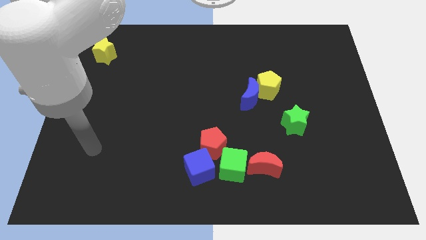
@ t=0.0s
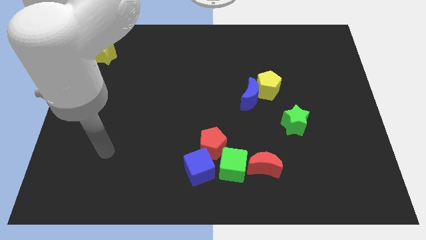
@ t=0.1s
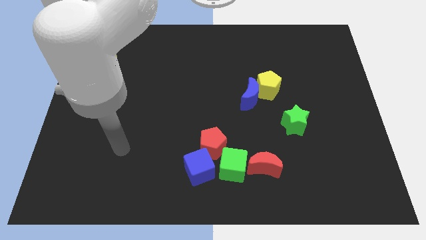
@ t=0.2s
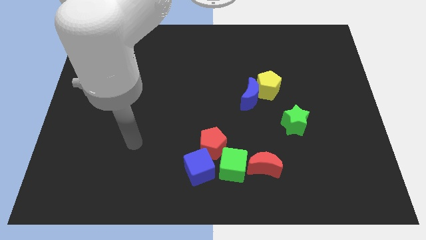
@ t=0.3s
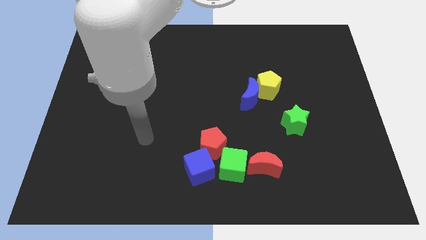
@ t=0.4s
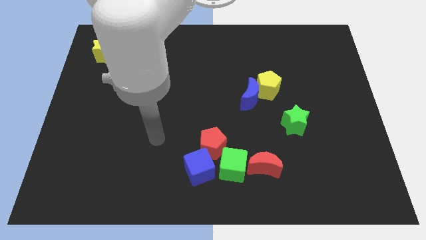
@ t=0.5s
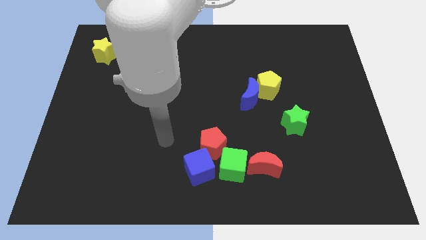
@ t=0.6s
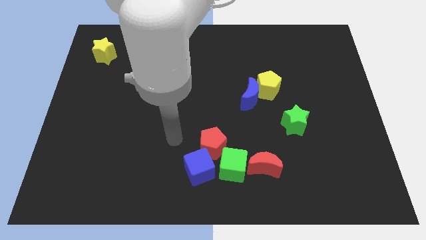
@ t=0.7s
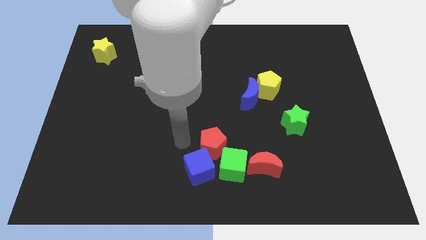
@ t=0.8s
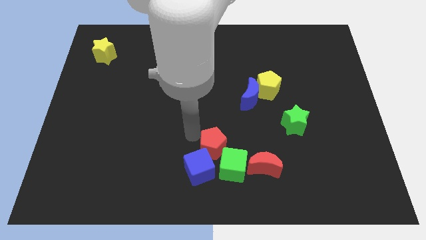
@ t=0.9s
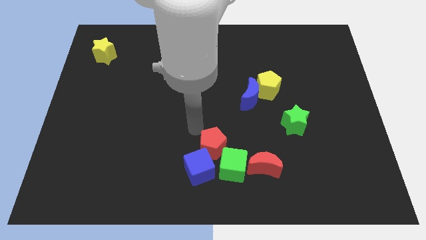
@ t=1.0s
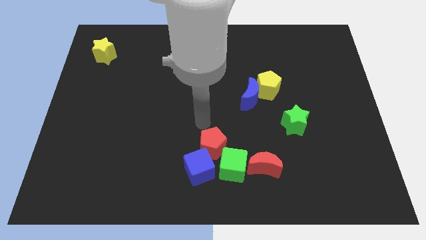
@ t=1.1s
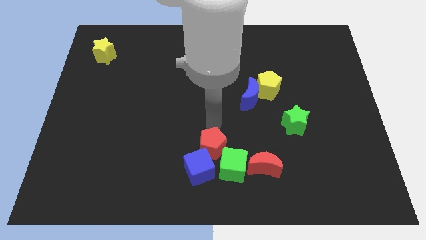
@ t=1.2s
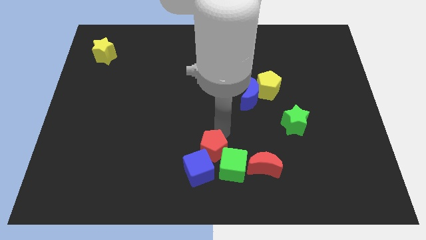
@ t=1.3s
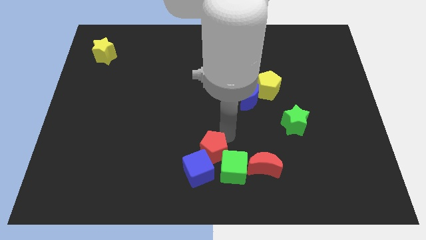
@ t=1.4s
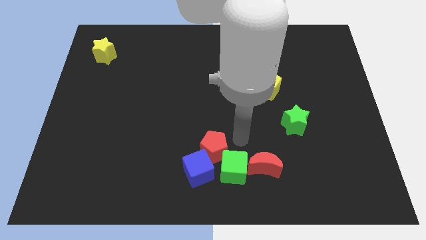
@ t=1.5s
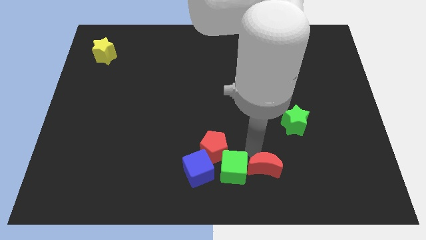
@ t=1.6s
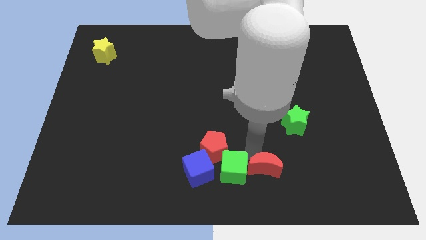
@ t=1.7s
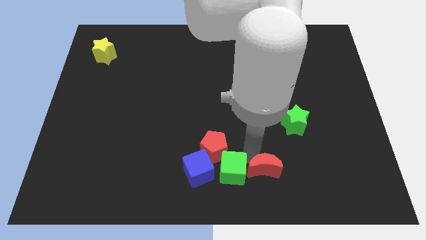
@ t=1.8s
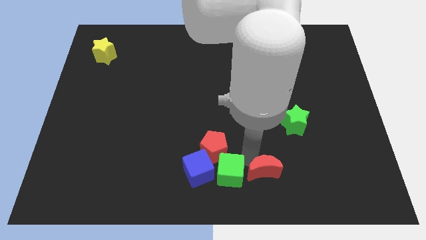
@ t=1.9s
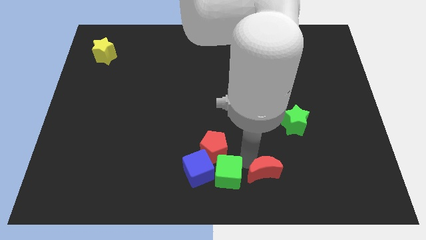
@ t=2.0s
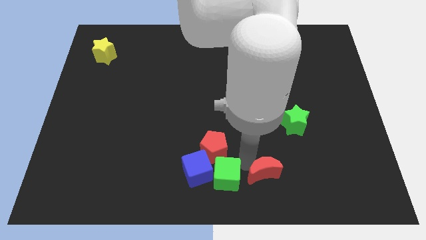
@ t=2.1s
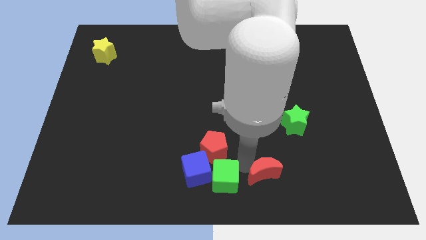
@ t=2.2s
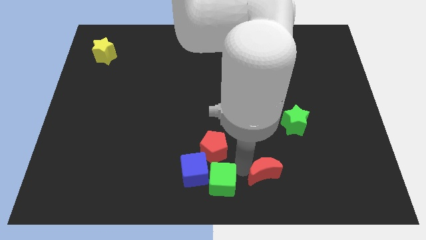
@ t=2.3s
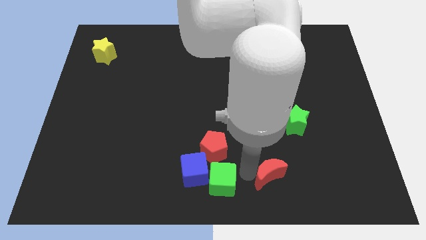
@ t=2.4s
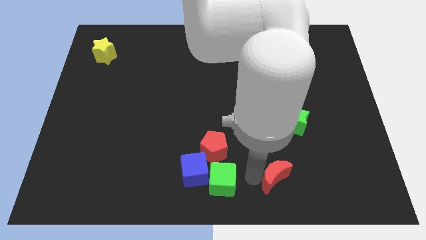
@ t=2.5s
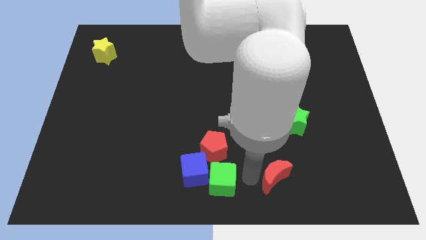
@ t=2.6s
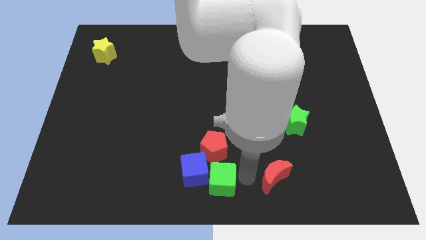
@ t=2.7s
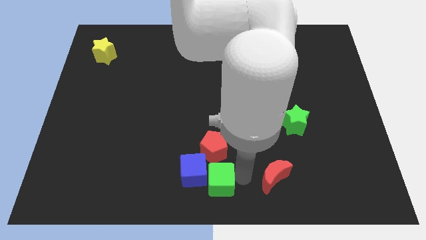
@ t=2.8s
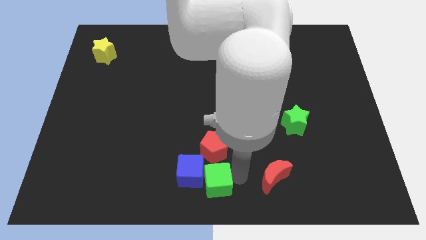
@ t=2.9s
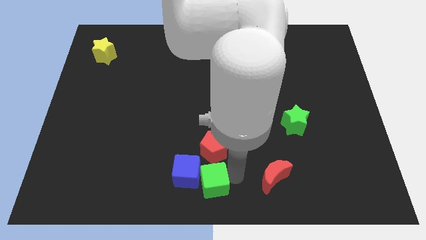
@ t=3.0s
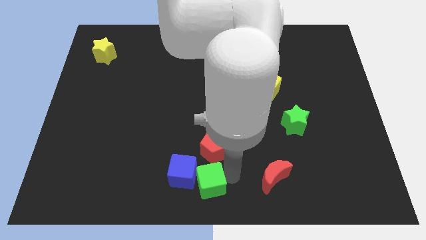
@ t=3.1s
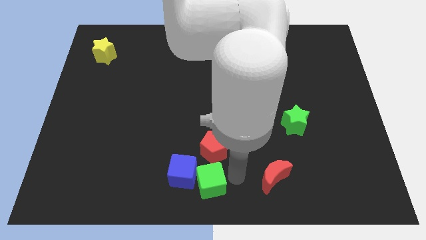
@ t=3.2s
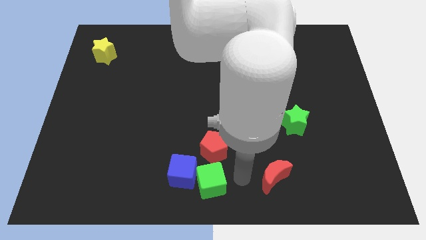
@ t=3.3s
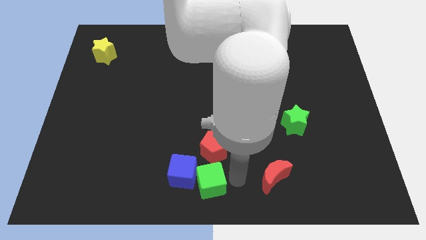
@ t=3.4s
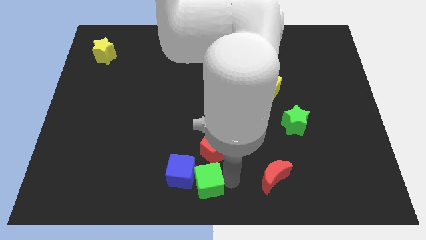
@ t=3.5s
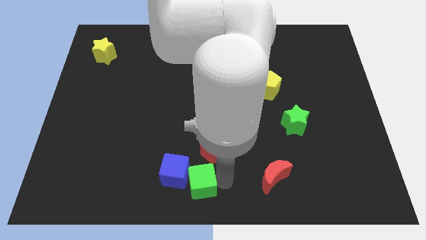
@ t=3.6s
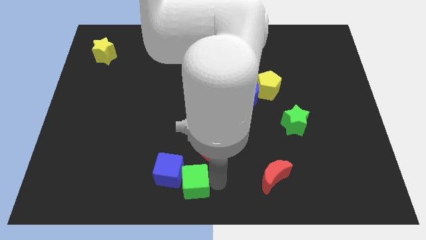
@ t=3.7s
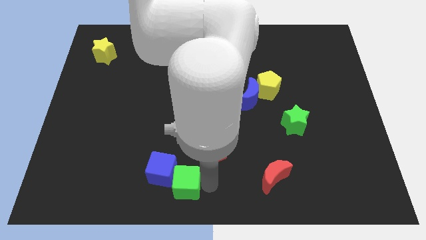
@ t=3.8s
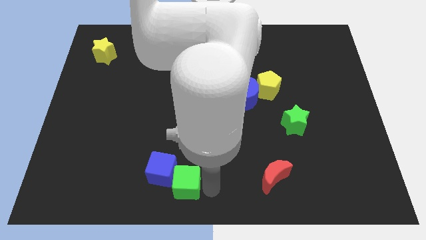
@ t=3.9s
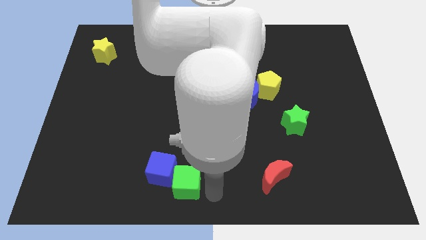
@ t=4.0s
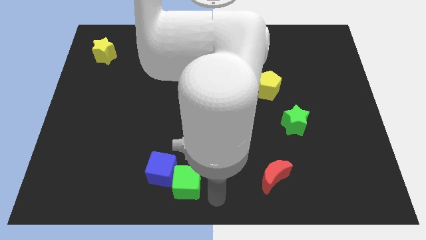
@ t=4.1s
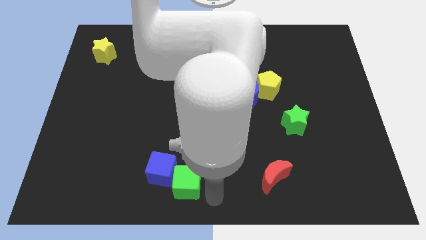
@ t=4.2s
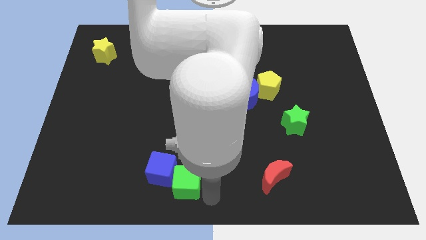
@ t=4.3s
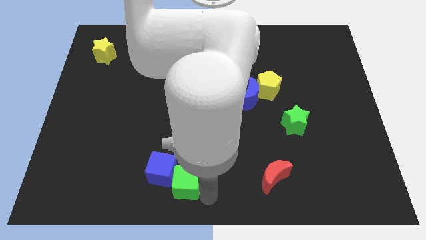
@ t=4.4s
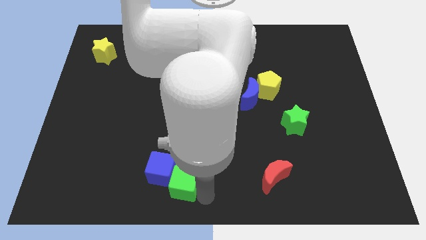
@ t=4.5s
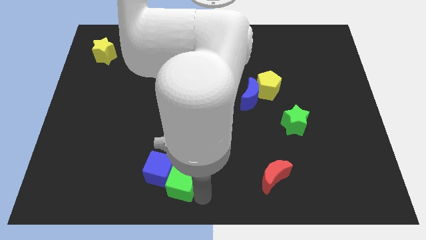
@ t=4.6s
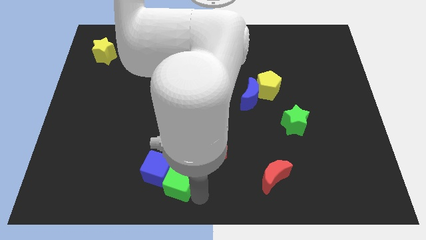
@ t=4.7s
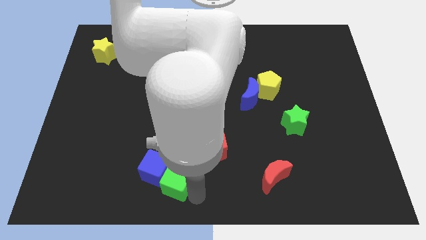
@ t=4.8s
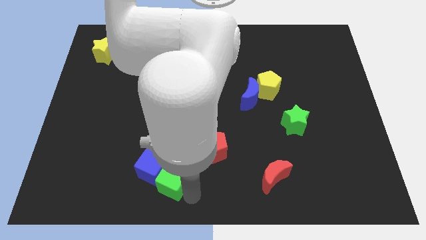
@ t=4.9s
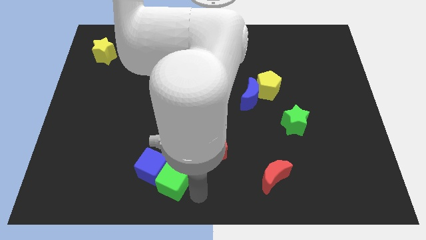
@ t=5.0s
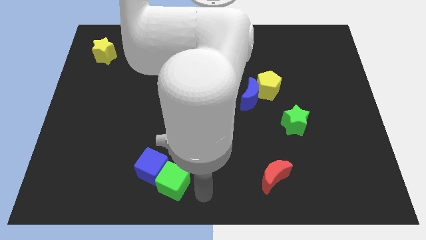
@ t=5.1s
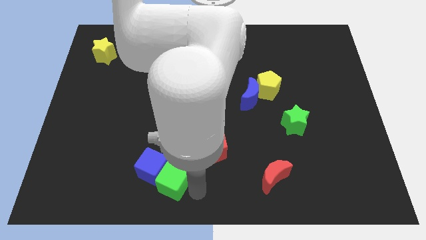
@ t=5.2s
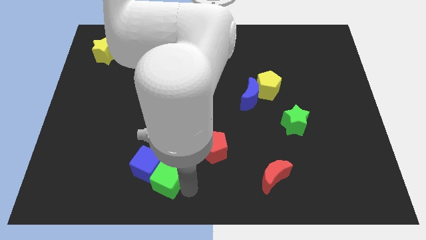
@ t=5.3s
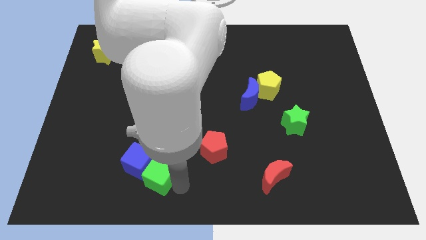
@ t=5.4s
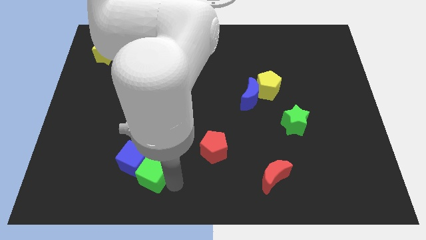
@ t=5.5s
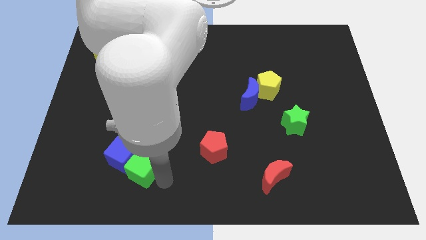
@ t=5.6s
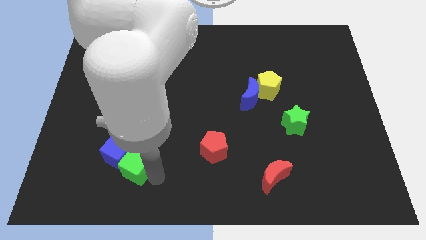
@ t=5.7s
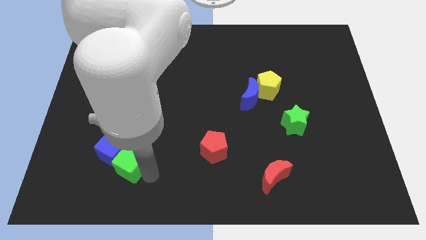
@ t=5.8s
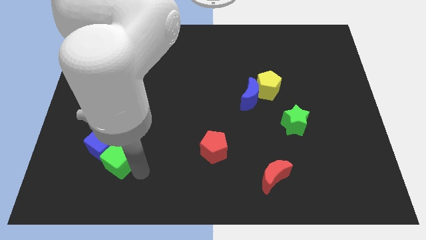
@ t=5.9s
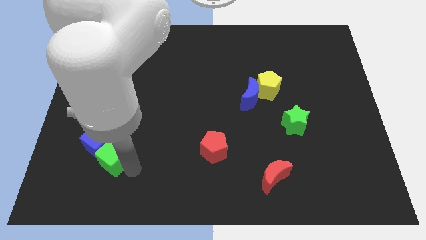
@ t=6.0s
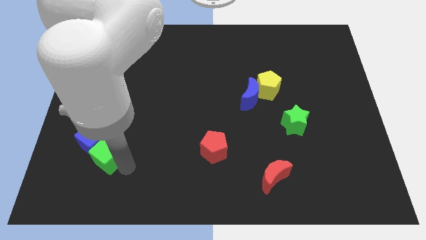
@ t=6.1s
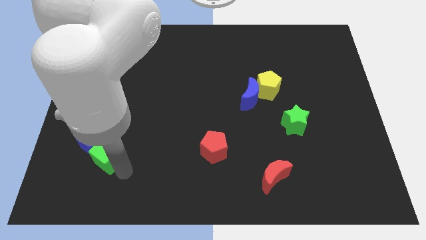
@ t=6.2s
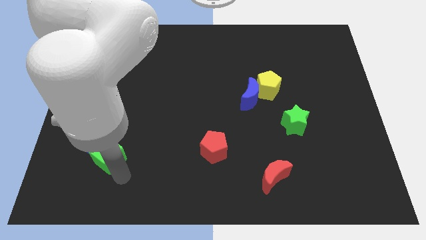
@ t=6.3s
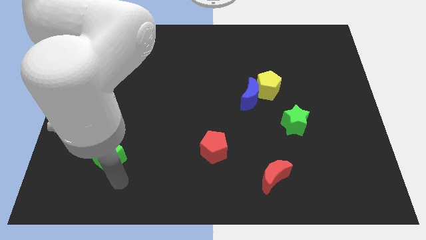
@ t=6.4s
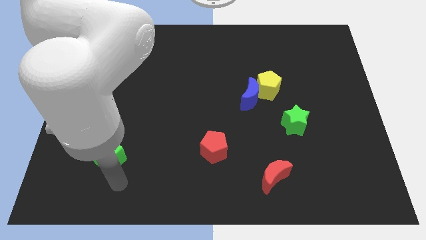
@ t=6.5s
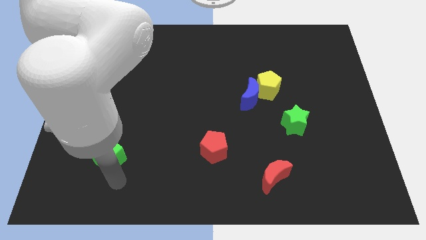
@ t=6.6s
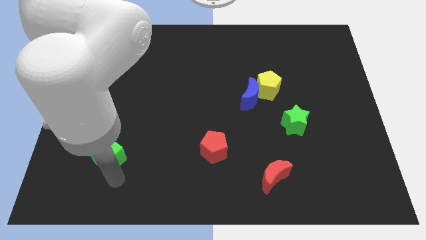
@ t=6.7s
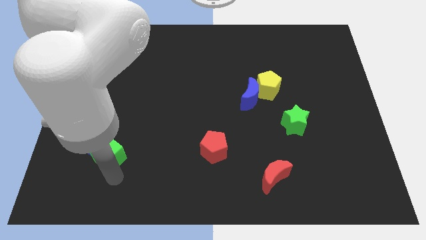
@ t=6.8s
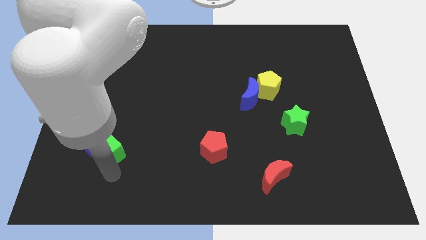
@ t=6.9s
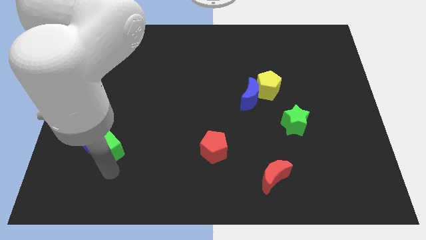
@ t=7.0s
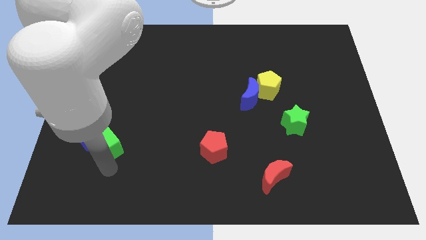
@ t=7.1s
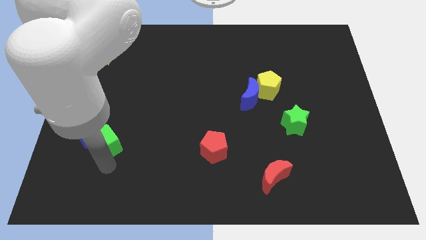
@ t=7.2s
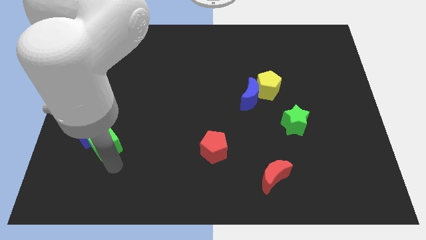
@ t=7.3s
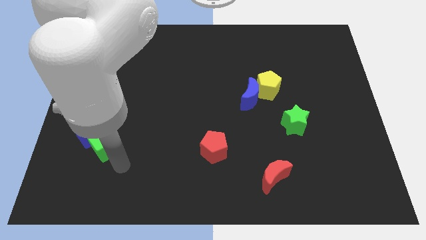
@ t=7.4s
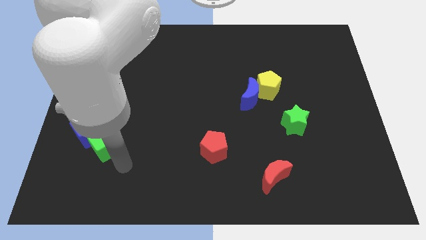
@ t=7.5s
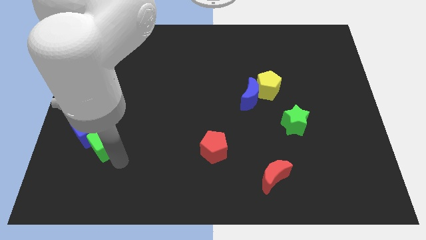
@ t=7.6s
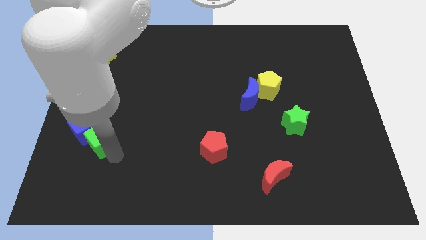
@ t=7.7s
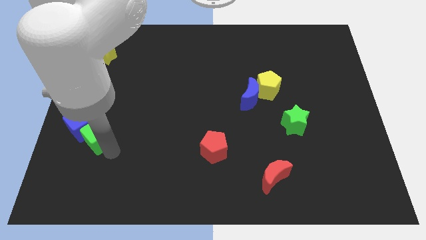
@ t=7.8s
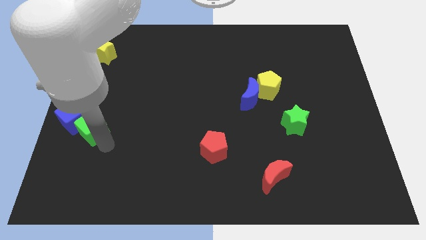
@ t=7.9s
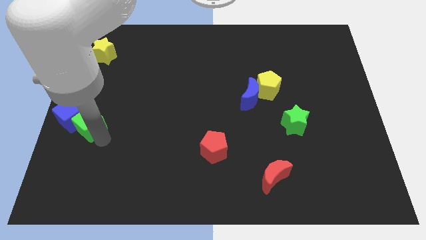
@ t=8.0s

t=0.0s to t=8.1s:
push the green cube to the center left

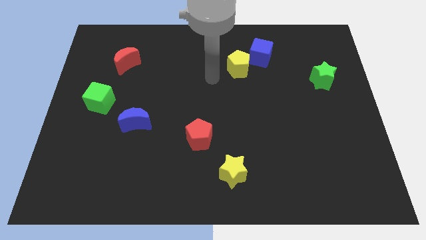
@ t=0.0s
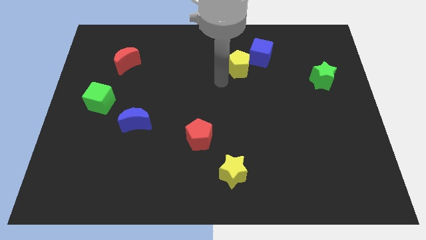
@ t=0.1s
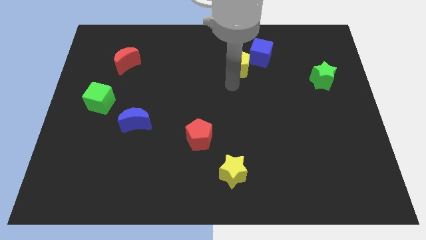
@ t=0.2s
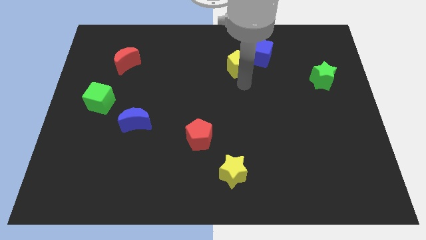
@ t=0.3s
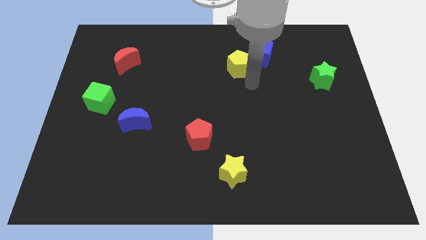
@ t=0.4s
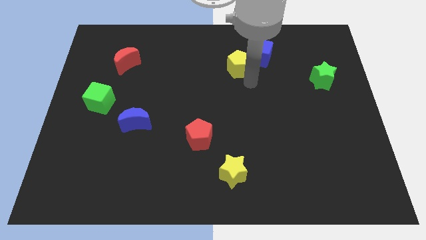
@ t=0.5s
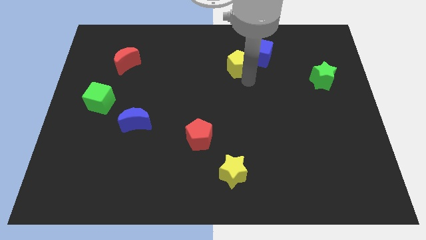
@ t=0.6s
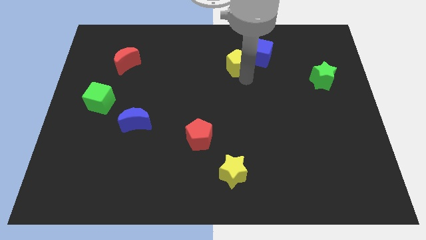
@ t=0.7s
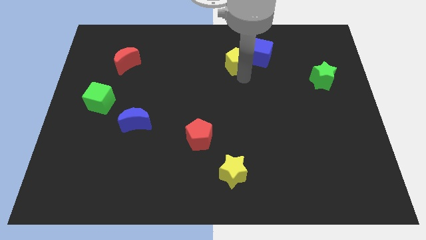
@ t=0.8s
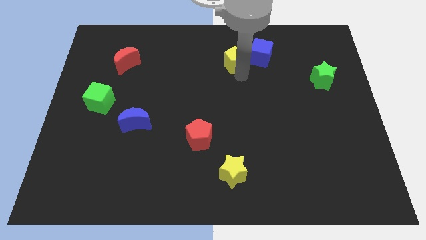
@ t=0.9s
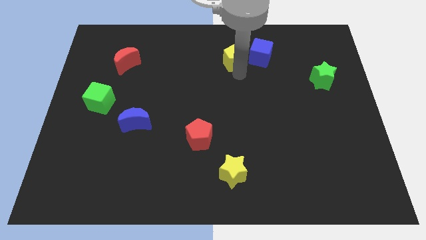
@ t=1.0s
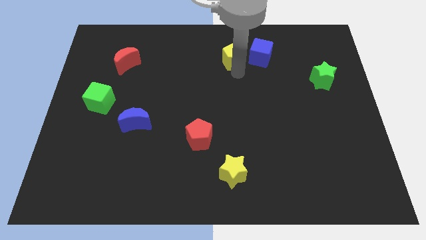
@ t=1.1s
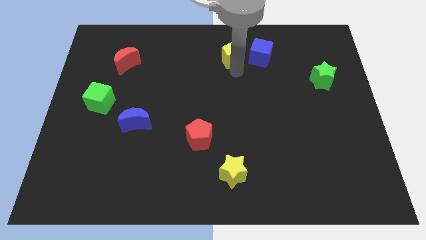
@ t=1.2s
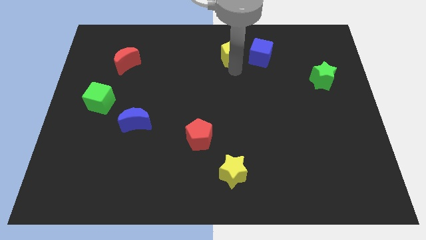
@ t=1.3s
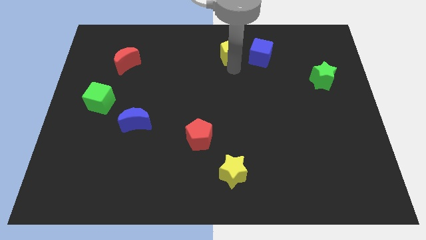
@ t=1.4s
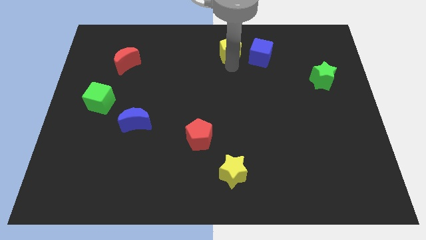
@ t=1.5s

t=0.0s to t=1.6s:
slide the yellow pentagon to the top side
